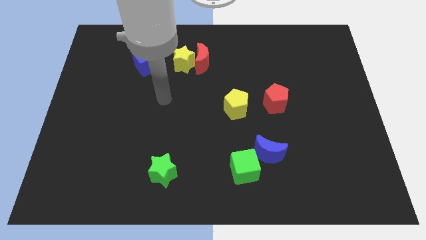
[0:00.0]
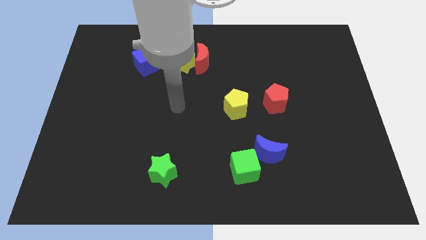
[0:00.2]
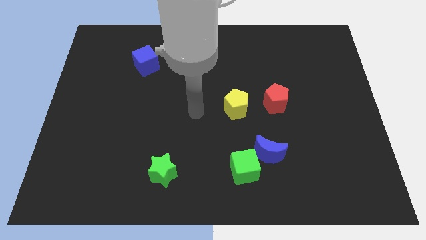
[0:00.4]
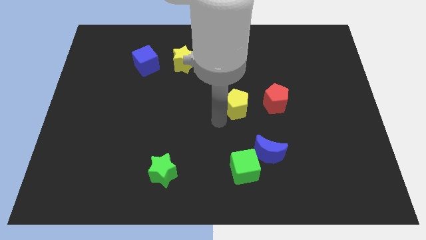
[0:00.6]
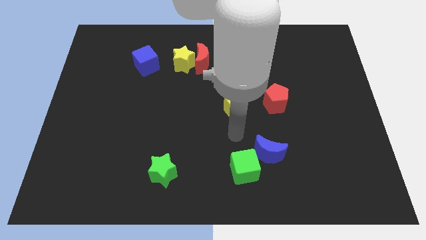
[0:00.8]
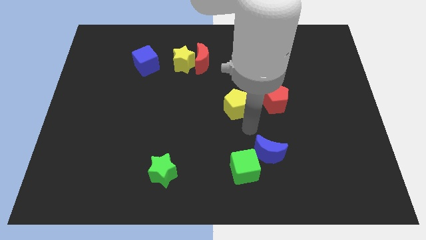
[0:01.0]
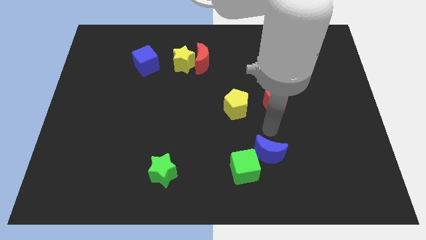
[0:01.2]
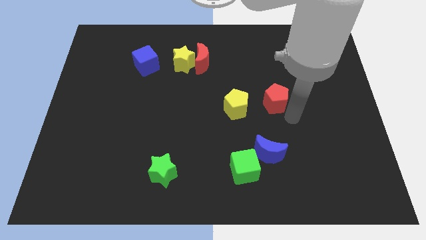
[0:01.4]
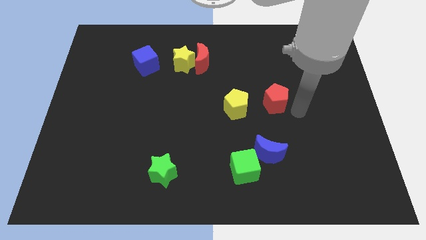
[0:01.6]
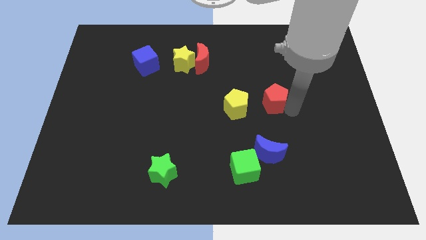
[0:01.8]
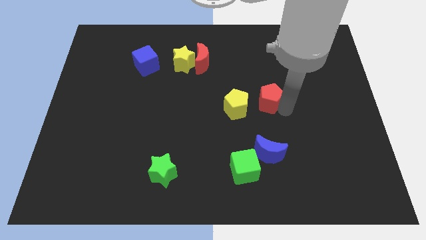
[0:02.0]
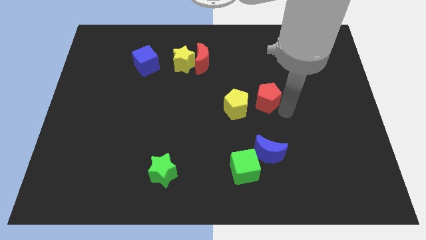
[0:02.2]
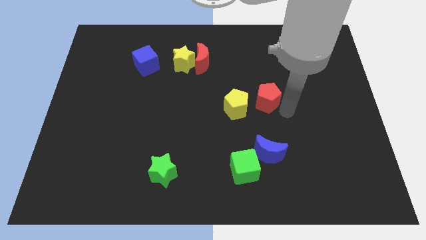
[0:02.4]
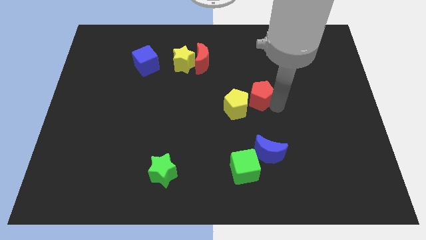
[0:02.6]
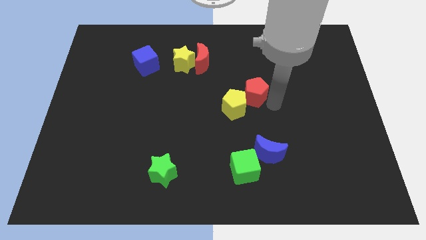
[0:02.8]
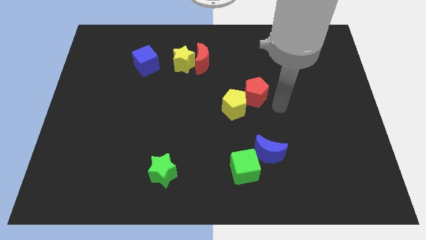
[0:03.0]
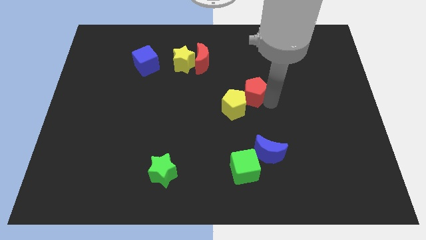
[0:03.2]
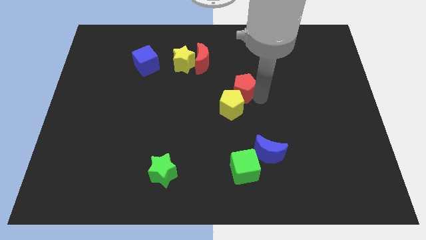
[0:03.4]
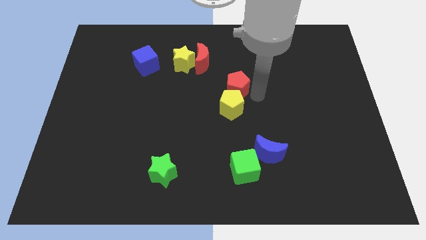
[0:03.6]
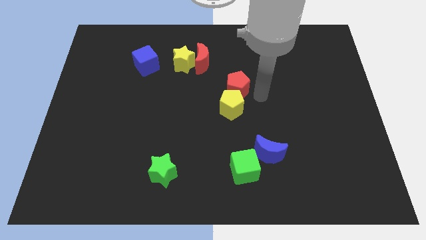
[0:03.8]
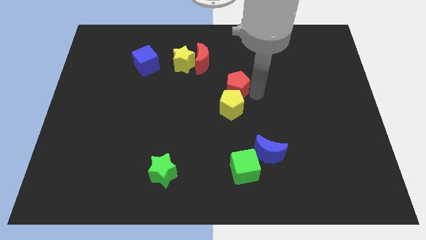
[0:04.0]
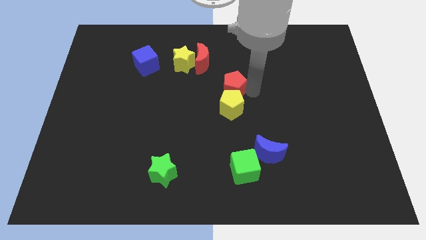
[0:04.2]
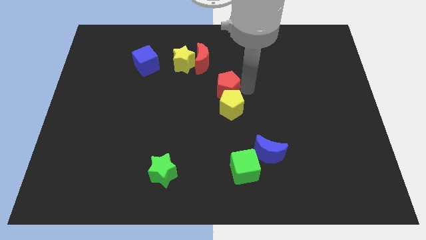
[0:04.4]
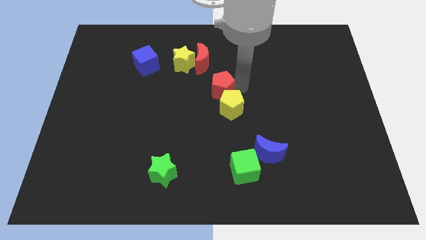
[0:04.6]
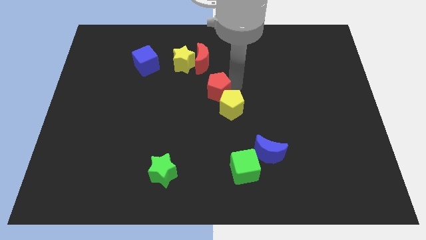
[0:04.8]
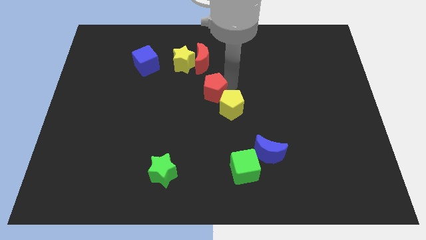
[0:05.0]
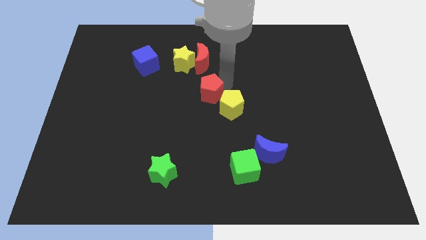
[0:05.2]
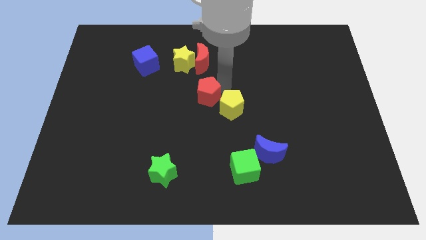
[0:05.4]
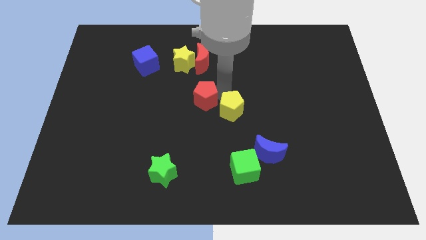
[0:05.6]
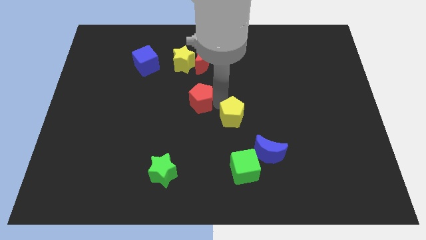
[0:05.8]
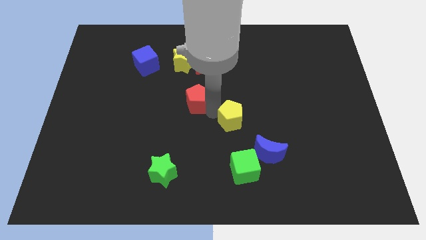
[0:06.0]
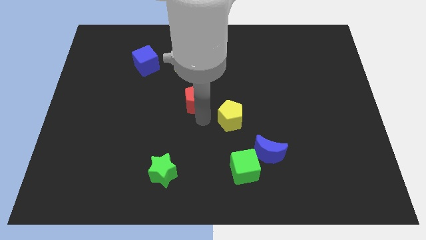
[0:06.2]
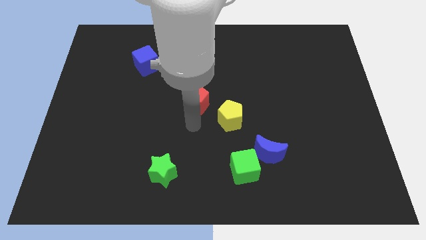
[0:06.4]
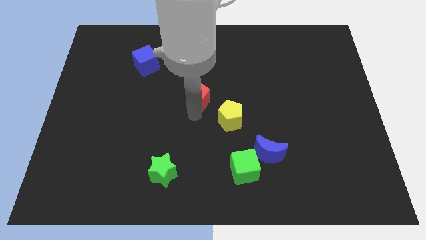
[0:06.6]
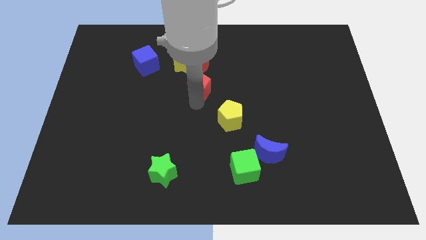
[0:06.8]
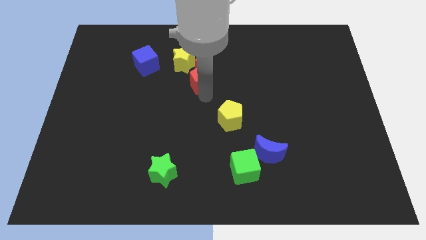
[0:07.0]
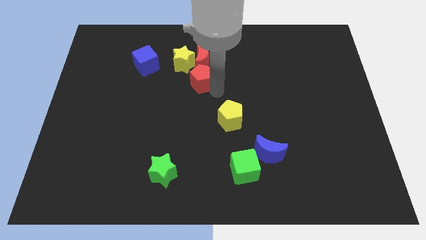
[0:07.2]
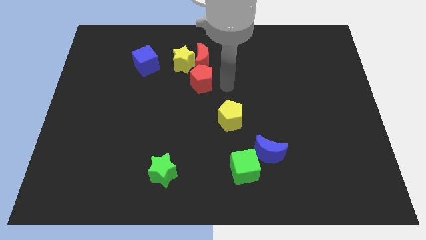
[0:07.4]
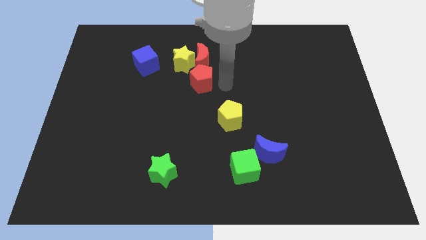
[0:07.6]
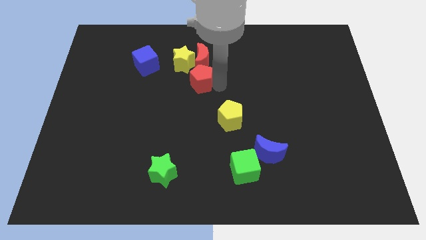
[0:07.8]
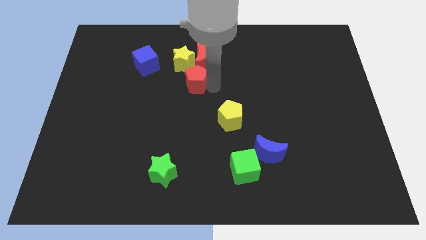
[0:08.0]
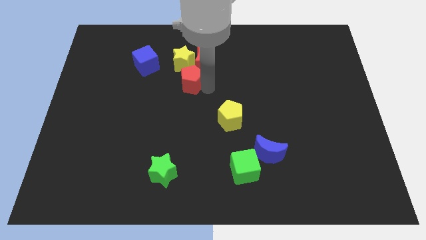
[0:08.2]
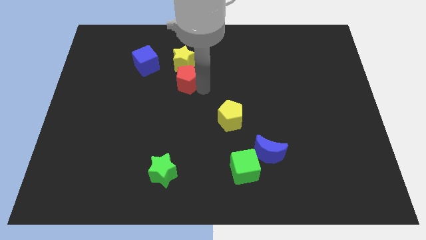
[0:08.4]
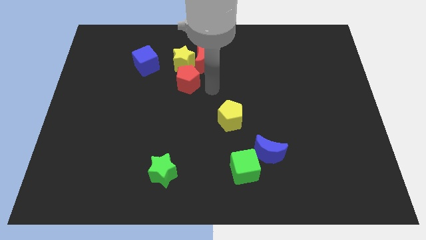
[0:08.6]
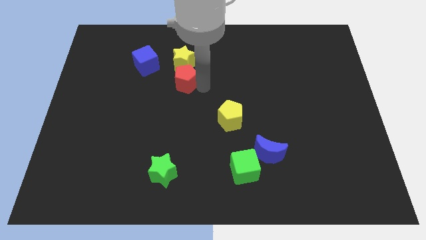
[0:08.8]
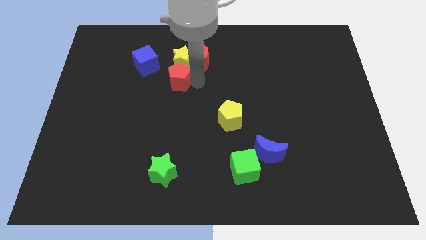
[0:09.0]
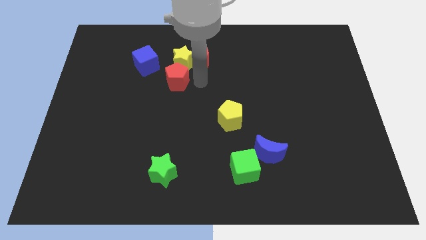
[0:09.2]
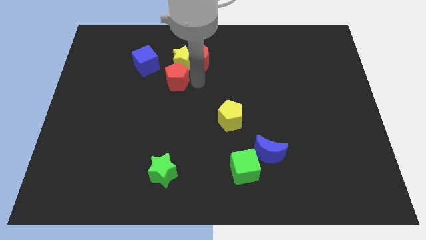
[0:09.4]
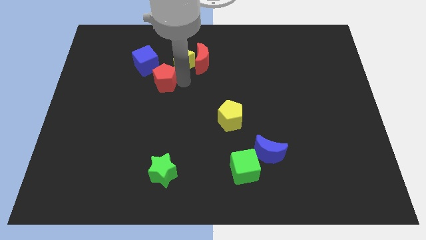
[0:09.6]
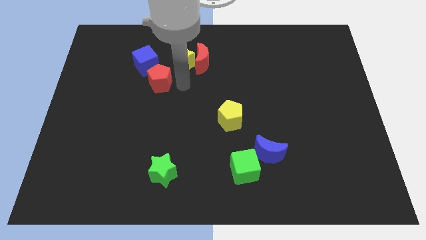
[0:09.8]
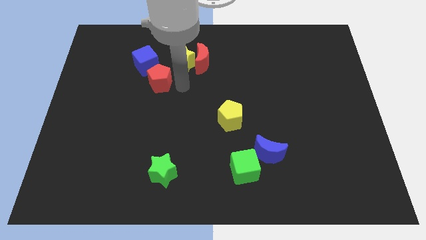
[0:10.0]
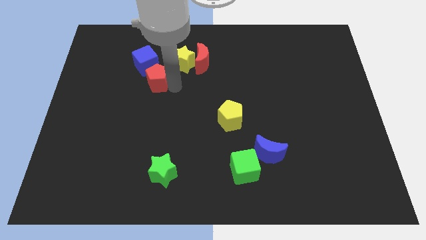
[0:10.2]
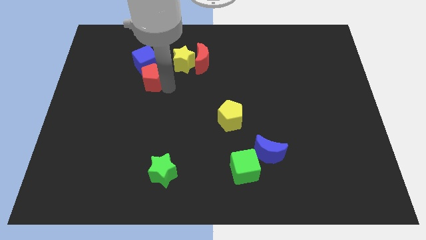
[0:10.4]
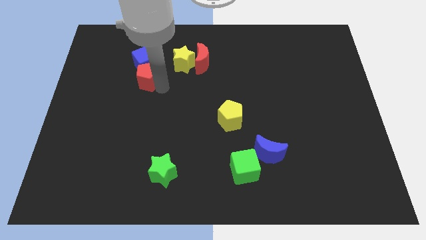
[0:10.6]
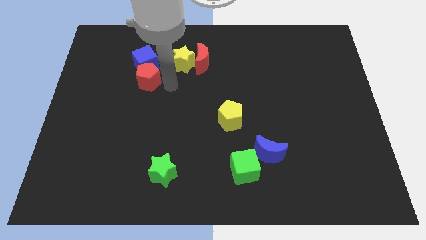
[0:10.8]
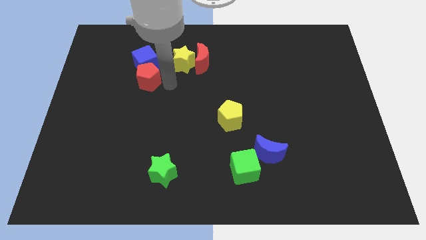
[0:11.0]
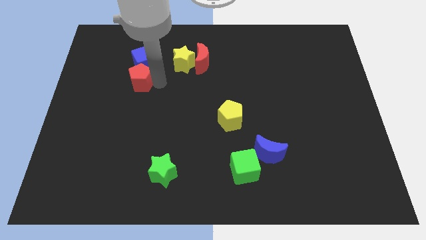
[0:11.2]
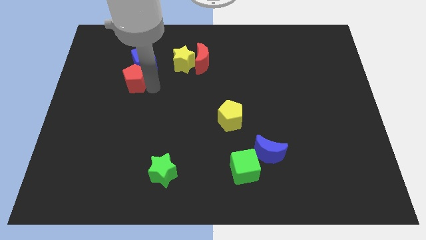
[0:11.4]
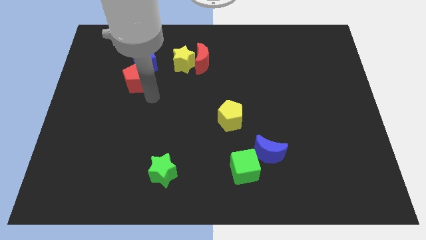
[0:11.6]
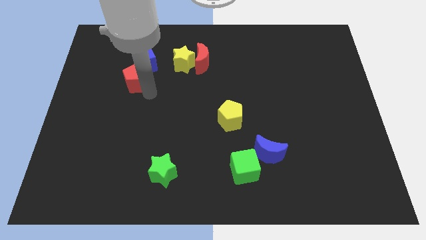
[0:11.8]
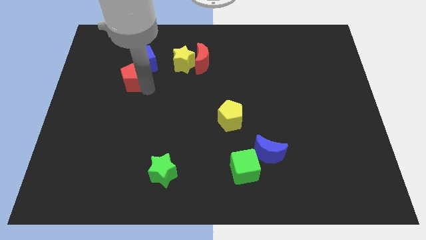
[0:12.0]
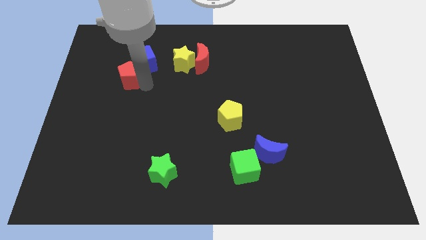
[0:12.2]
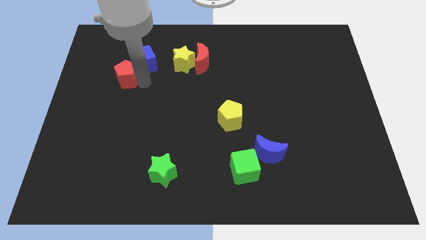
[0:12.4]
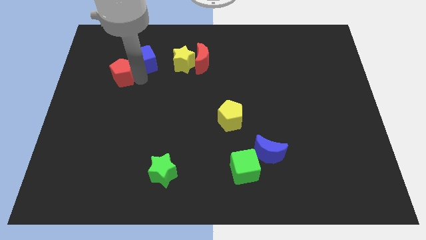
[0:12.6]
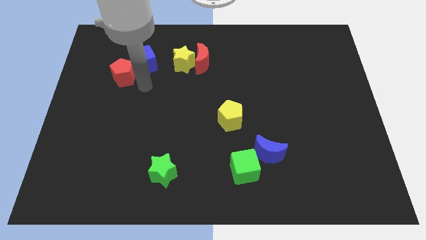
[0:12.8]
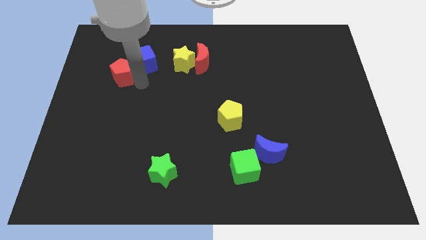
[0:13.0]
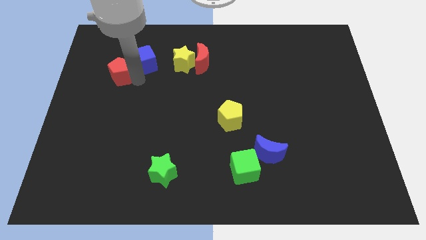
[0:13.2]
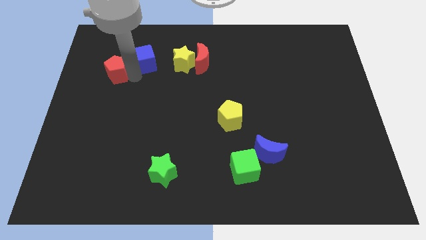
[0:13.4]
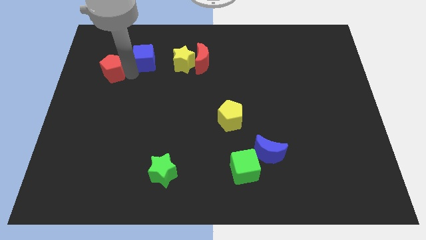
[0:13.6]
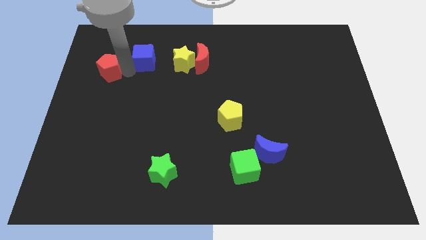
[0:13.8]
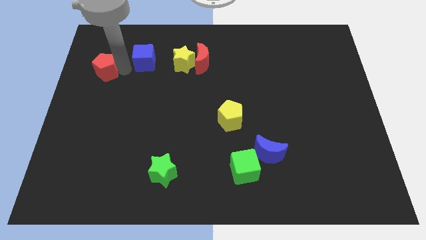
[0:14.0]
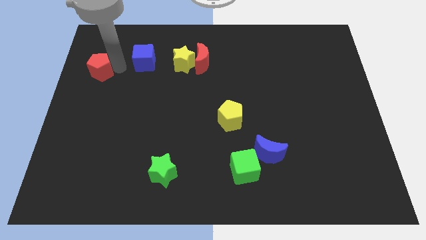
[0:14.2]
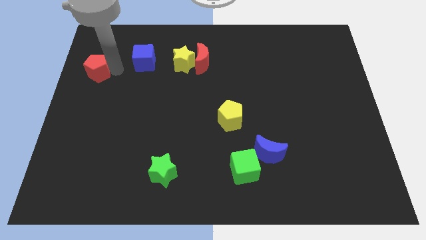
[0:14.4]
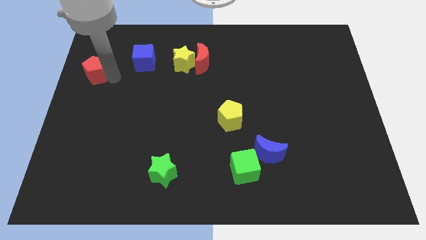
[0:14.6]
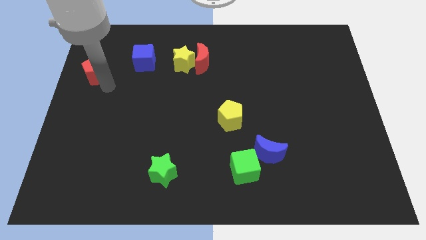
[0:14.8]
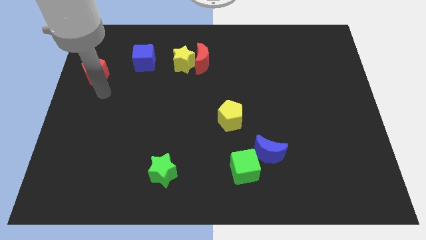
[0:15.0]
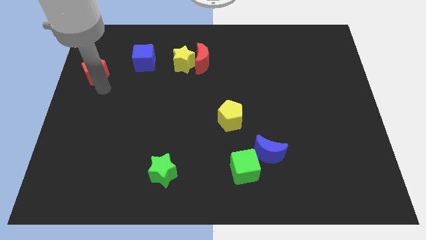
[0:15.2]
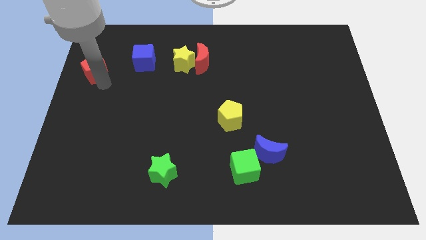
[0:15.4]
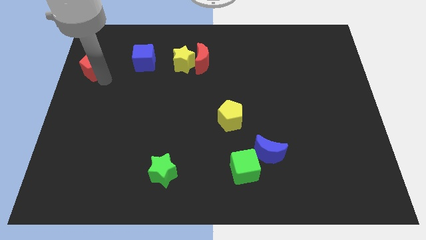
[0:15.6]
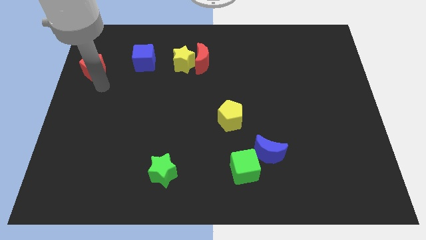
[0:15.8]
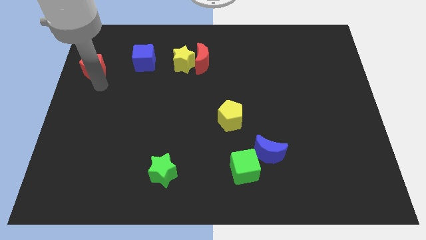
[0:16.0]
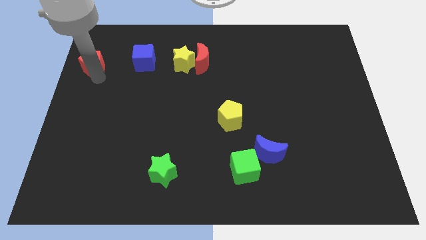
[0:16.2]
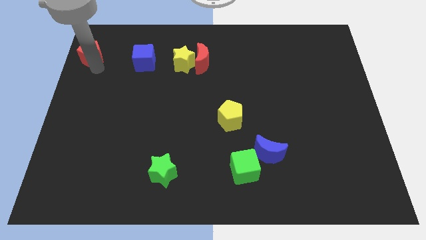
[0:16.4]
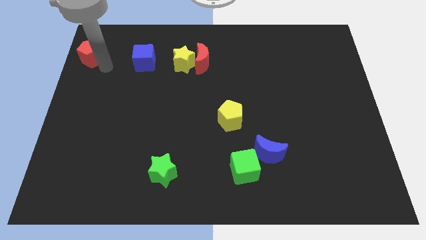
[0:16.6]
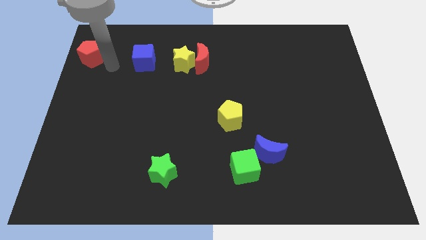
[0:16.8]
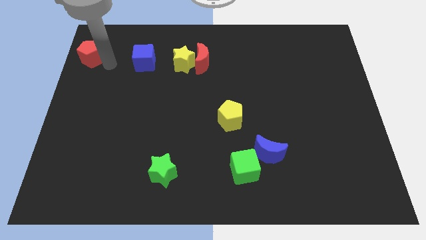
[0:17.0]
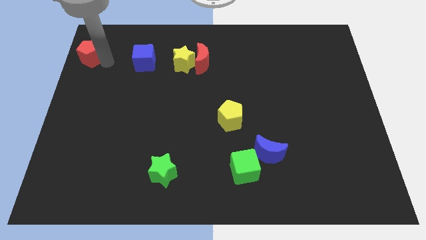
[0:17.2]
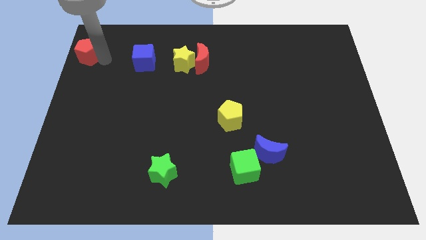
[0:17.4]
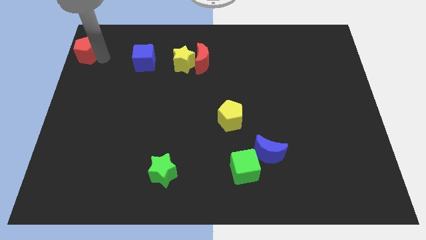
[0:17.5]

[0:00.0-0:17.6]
put the red pentagon to the top left
